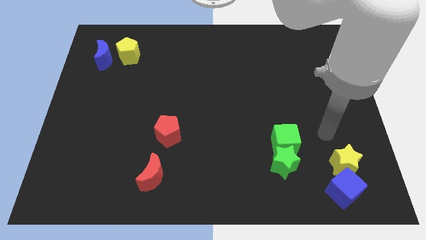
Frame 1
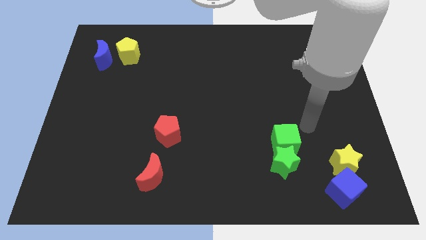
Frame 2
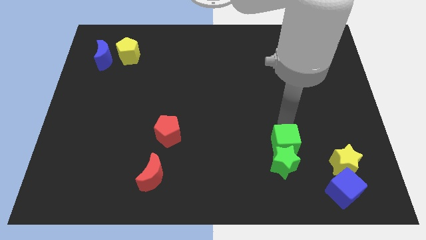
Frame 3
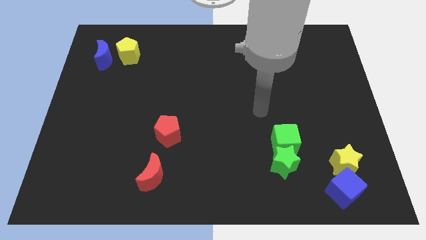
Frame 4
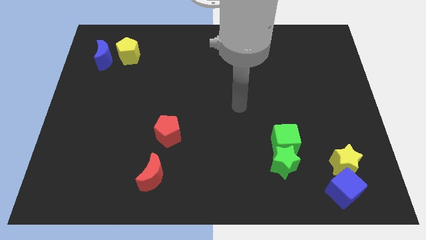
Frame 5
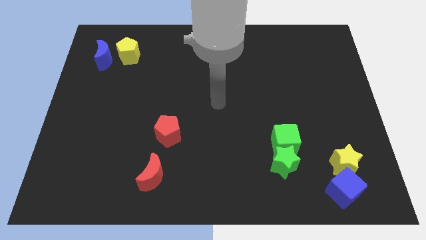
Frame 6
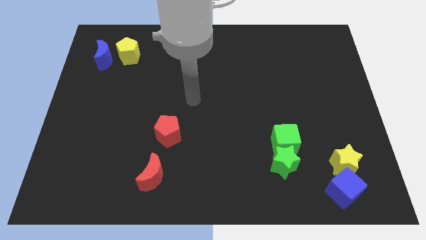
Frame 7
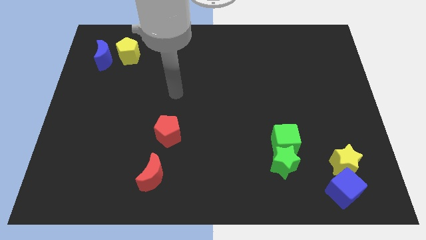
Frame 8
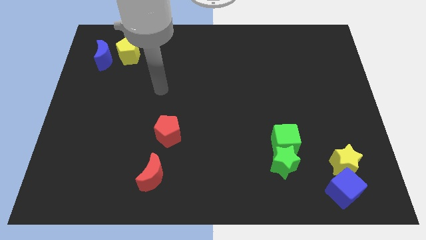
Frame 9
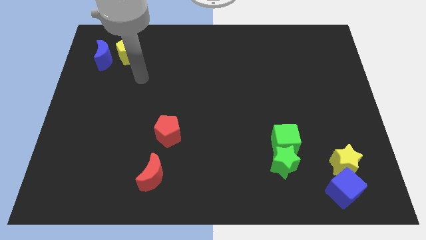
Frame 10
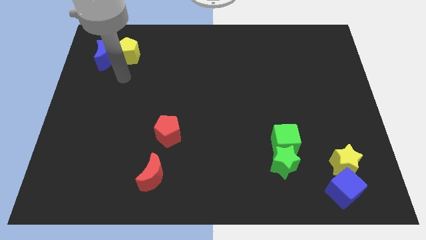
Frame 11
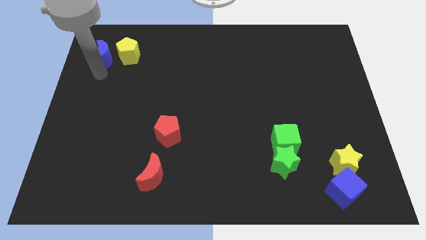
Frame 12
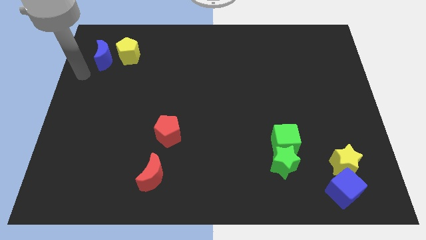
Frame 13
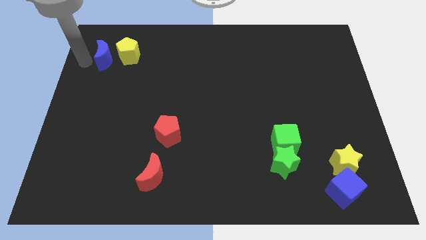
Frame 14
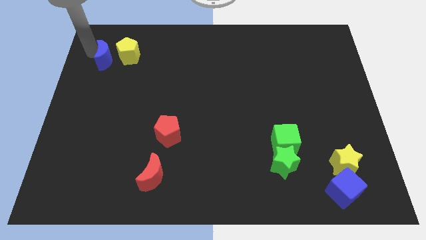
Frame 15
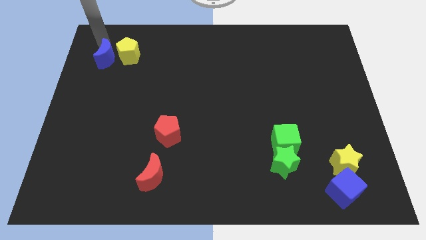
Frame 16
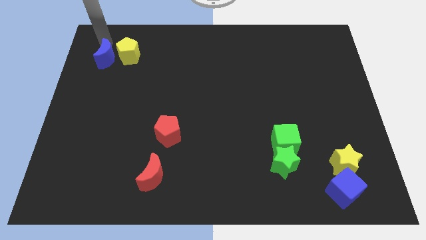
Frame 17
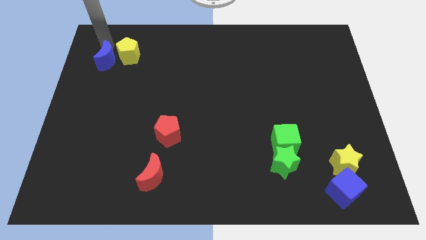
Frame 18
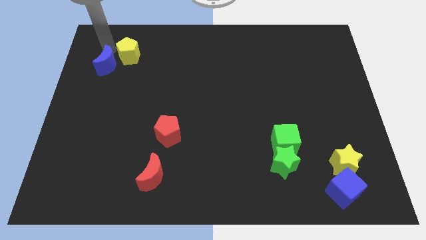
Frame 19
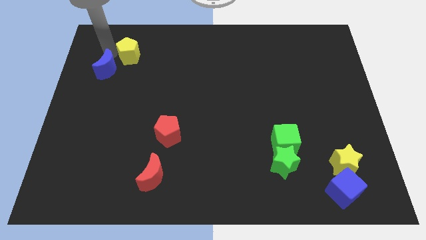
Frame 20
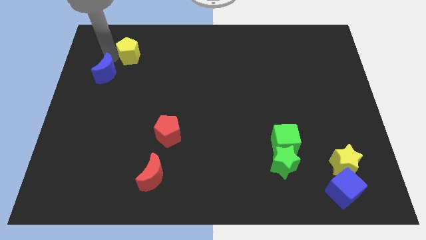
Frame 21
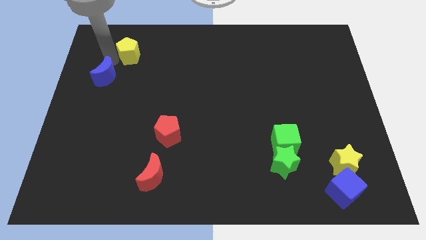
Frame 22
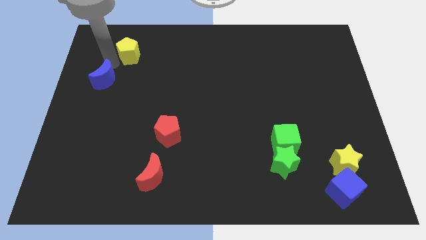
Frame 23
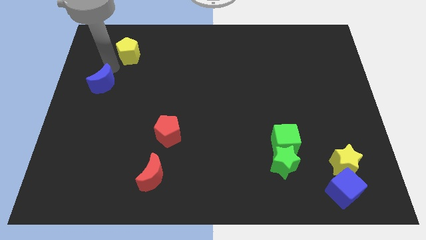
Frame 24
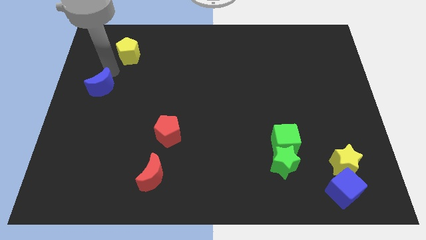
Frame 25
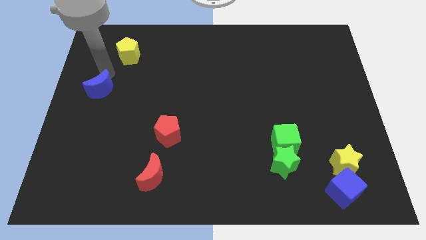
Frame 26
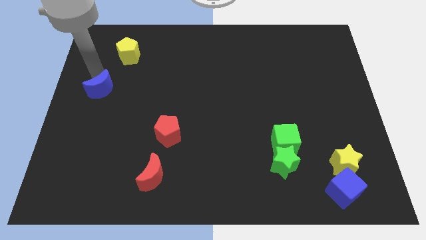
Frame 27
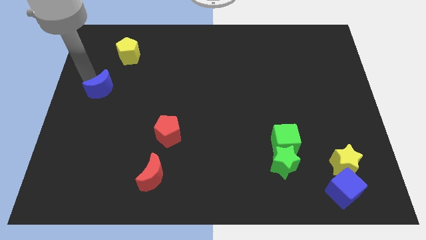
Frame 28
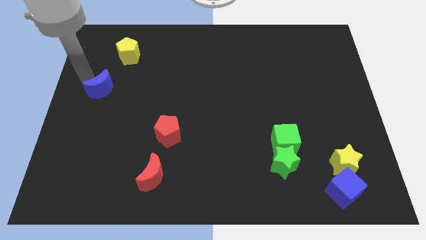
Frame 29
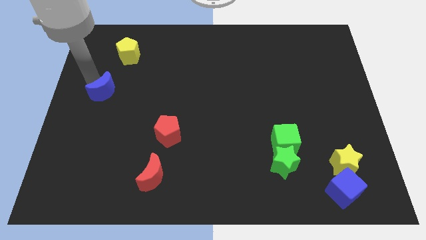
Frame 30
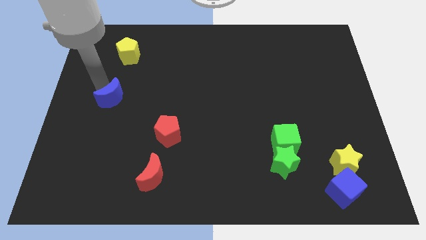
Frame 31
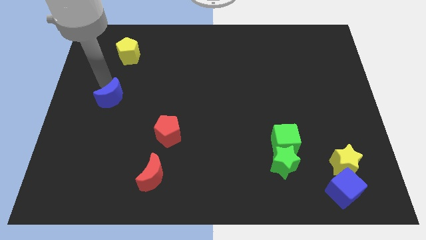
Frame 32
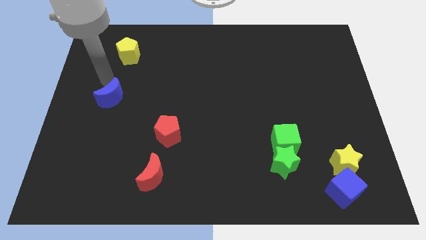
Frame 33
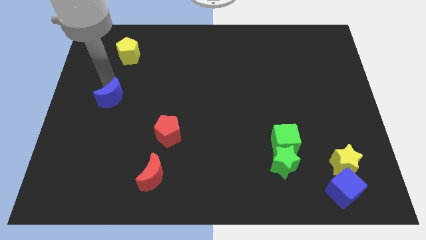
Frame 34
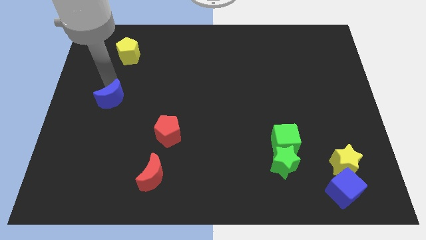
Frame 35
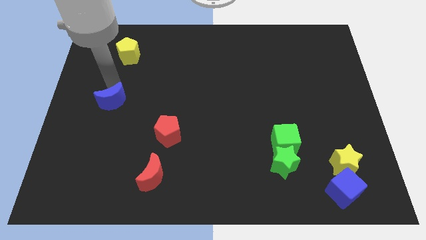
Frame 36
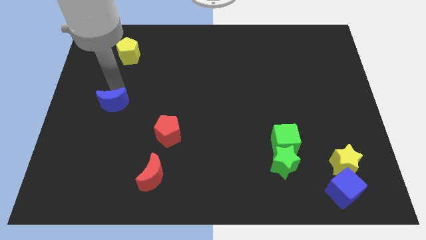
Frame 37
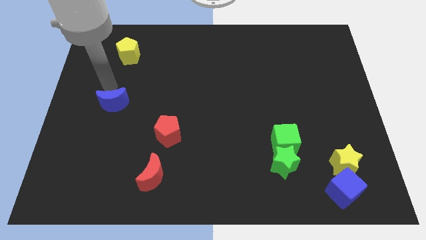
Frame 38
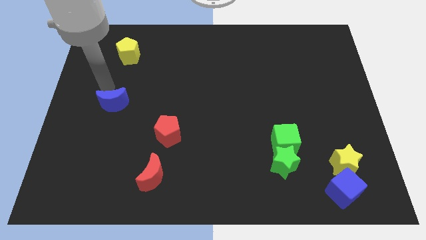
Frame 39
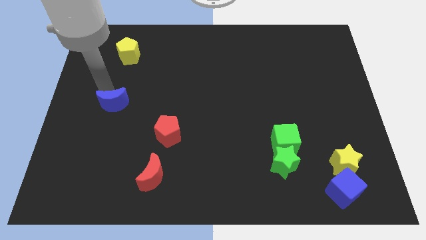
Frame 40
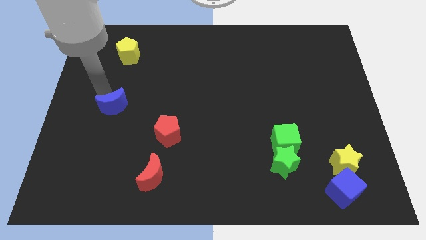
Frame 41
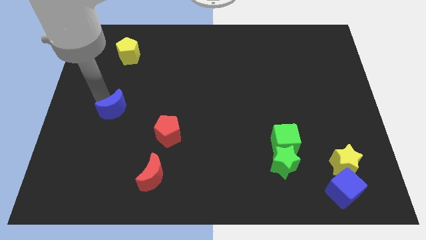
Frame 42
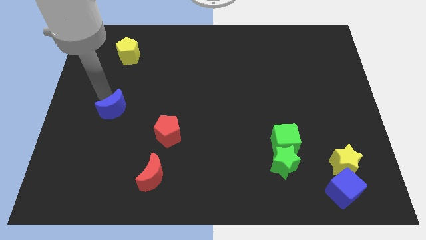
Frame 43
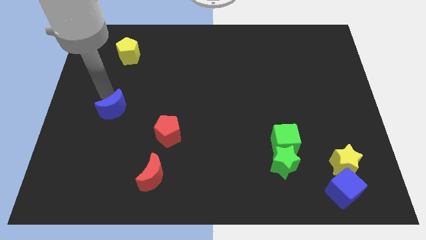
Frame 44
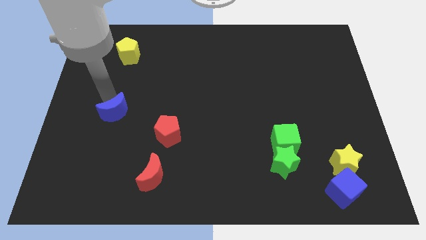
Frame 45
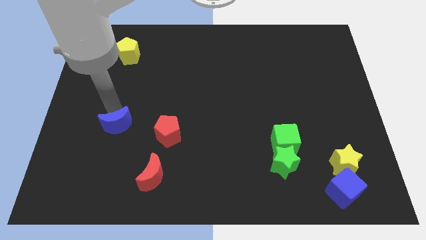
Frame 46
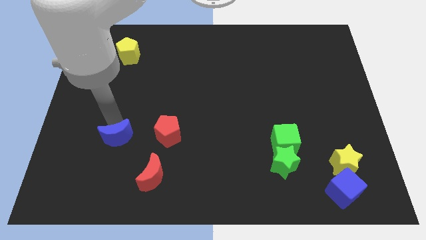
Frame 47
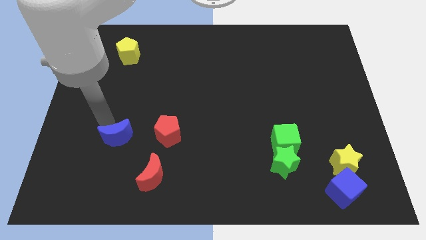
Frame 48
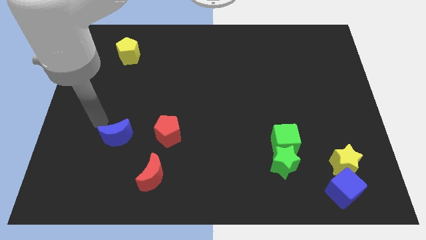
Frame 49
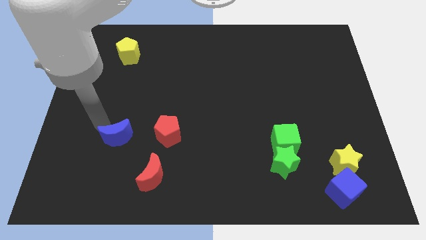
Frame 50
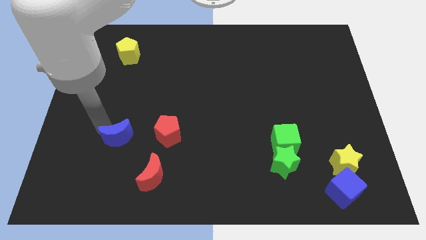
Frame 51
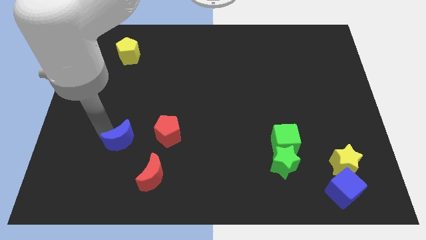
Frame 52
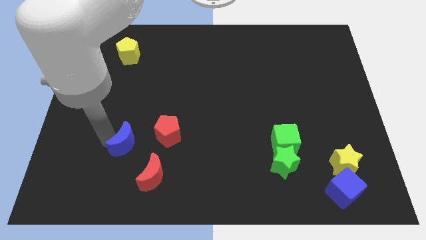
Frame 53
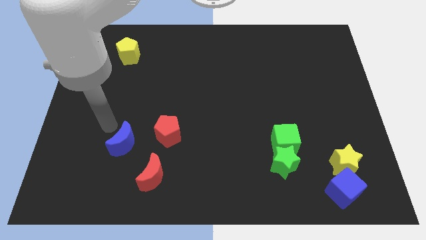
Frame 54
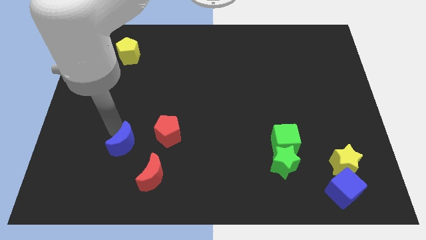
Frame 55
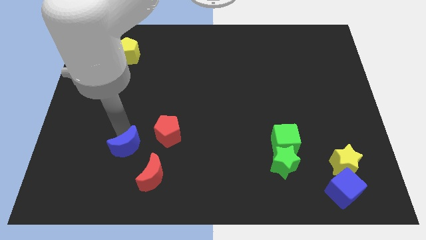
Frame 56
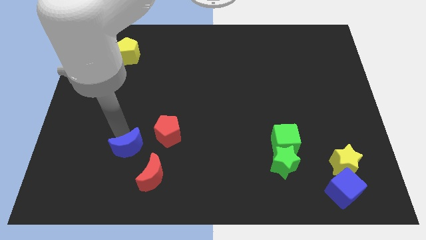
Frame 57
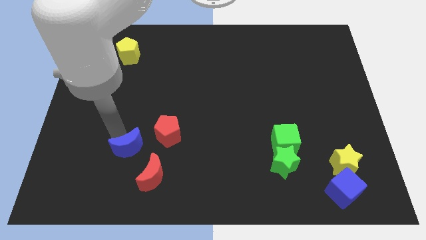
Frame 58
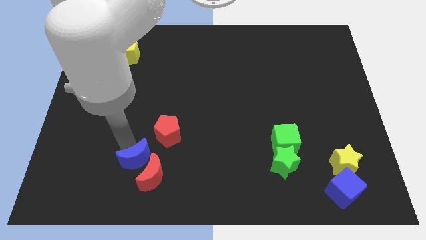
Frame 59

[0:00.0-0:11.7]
slide the blue moon to the red moon
